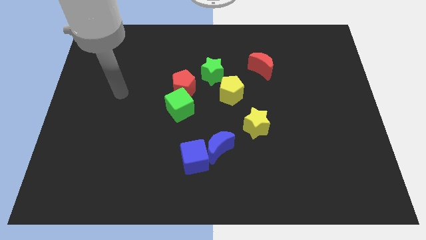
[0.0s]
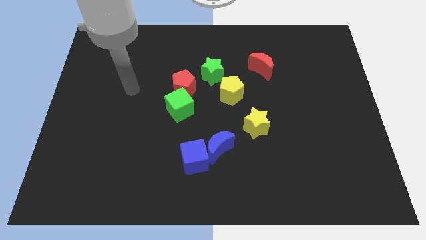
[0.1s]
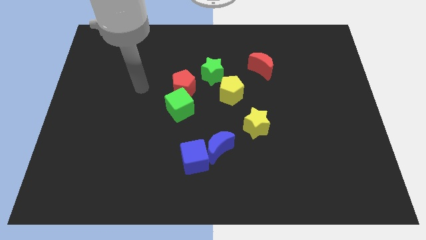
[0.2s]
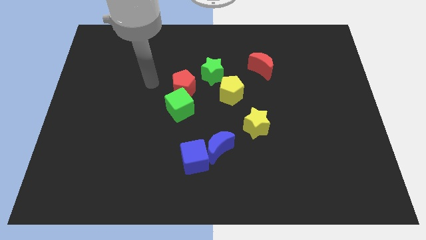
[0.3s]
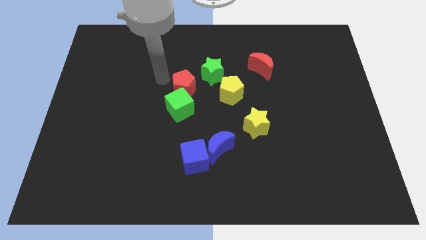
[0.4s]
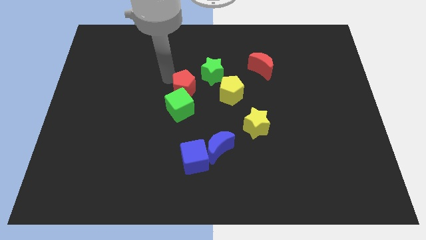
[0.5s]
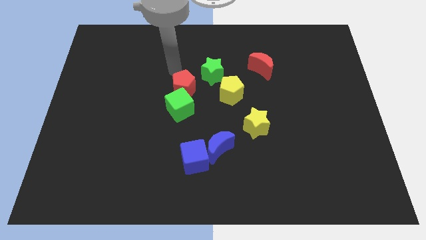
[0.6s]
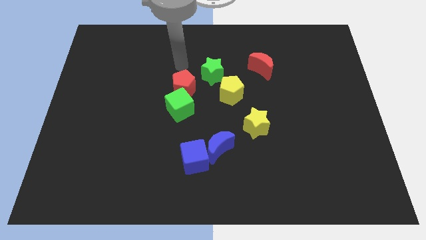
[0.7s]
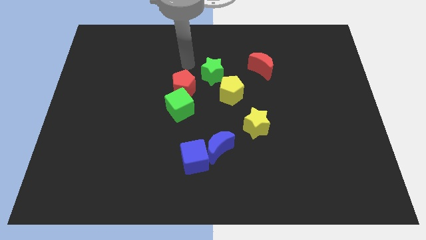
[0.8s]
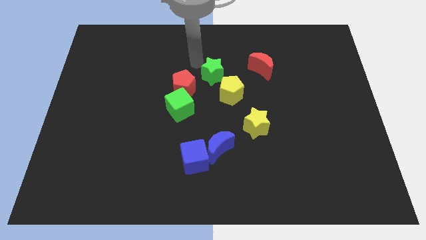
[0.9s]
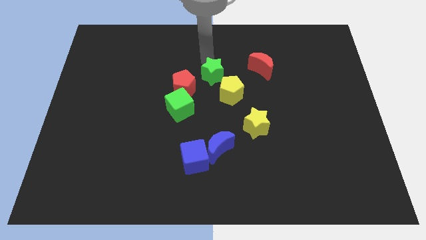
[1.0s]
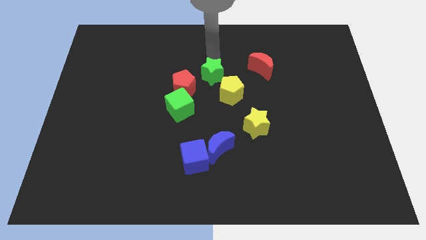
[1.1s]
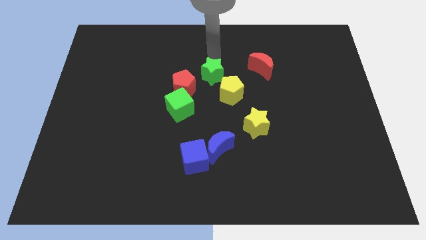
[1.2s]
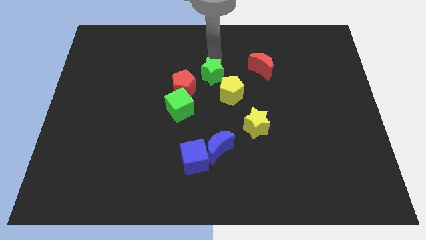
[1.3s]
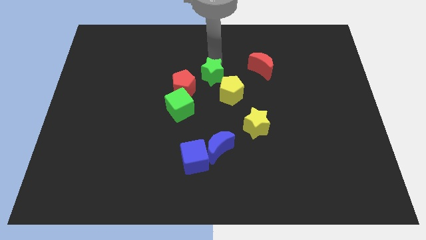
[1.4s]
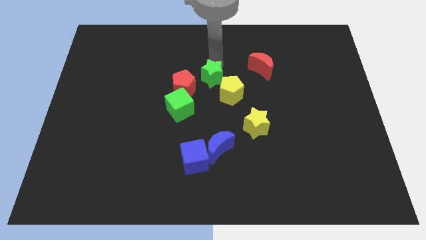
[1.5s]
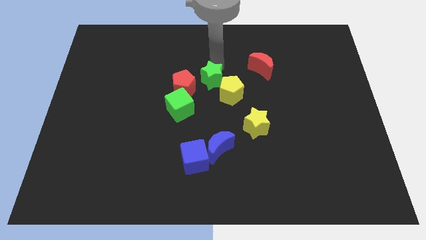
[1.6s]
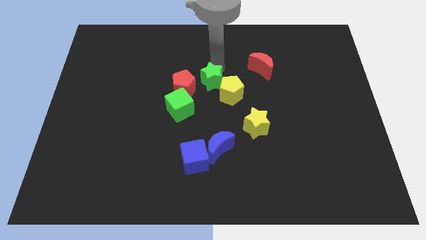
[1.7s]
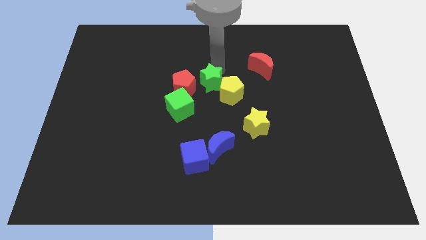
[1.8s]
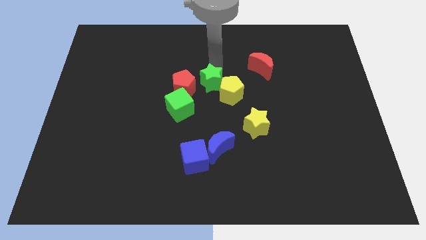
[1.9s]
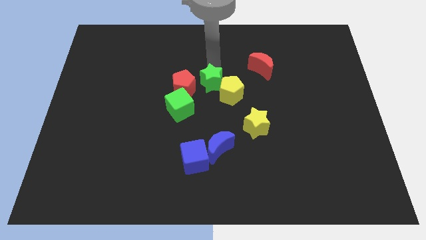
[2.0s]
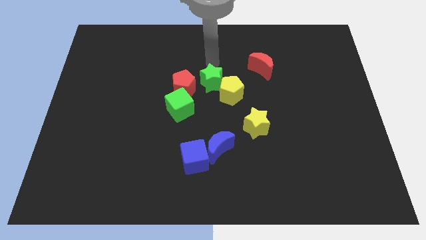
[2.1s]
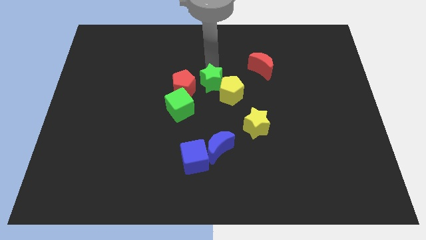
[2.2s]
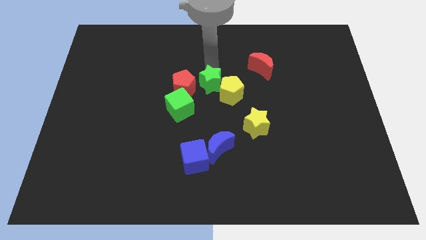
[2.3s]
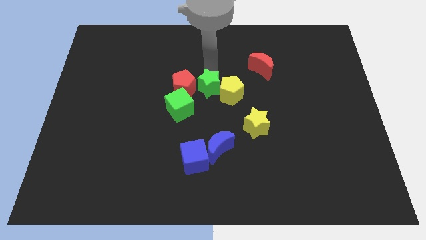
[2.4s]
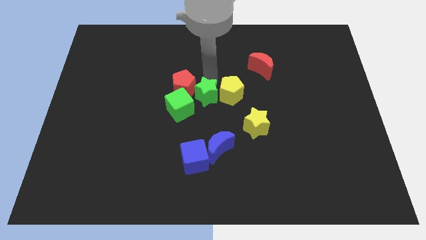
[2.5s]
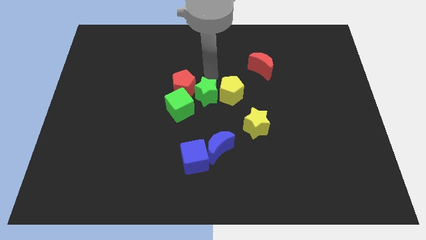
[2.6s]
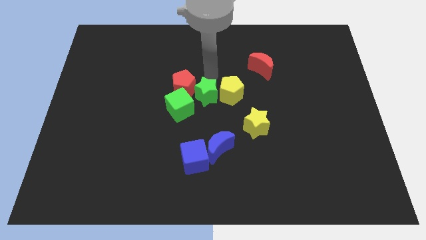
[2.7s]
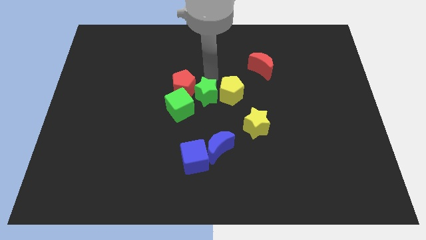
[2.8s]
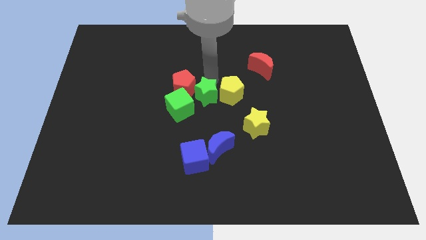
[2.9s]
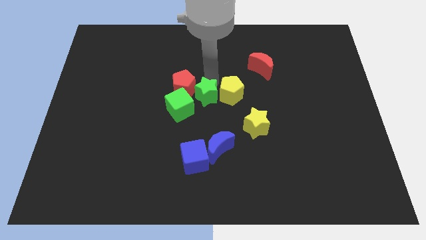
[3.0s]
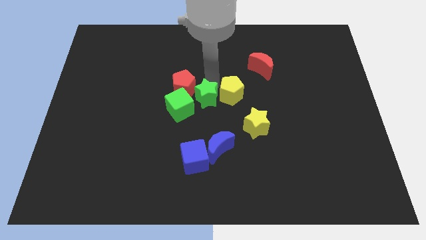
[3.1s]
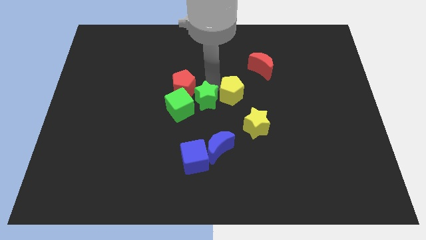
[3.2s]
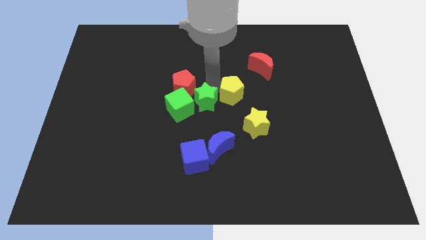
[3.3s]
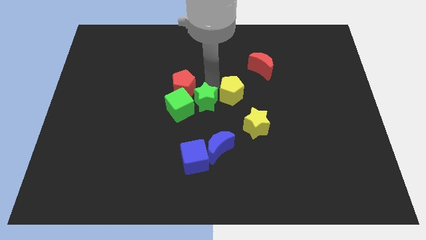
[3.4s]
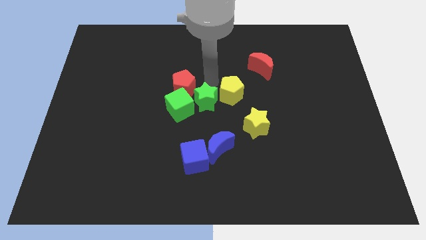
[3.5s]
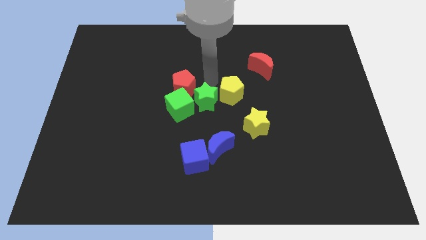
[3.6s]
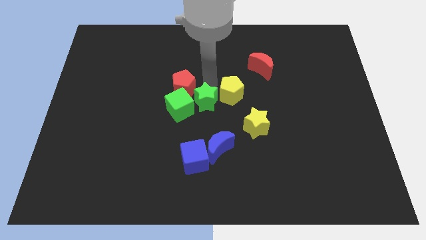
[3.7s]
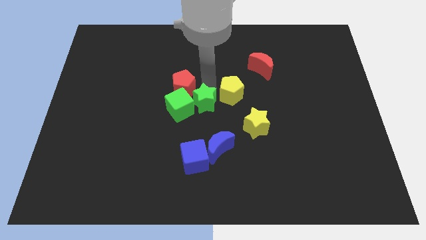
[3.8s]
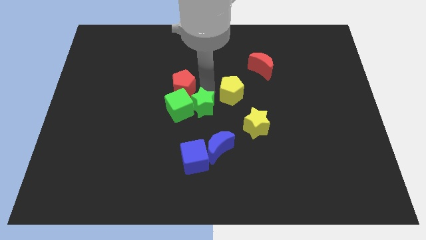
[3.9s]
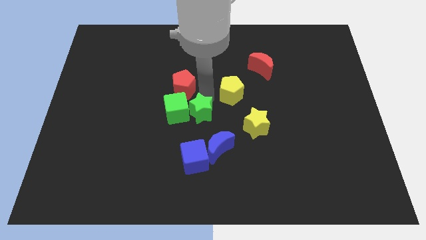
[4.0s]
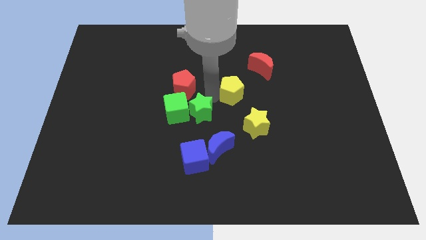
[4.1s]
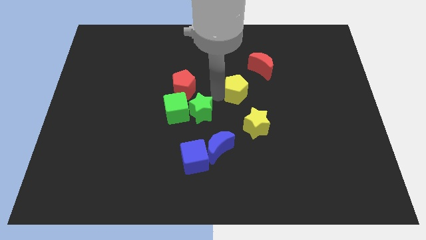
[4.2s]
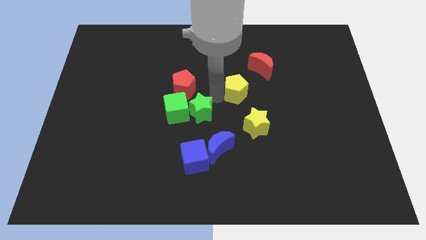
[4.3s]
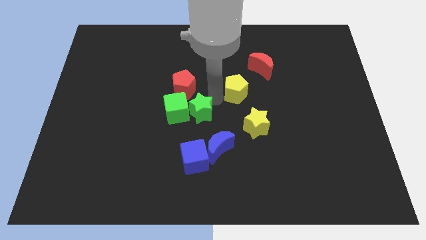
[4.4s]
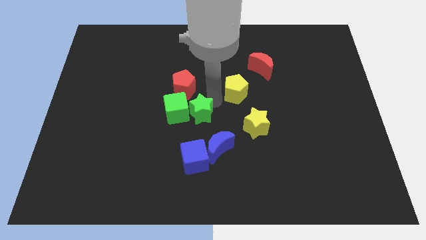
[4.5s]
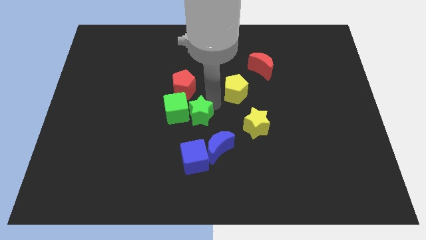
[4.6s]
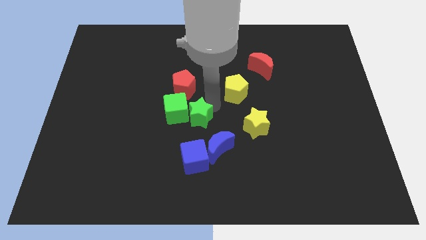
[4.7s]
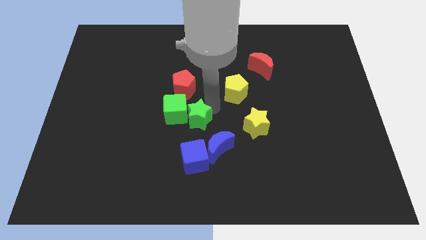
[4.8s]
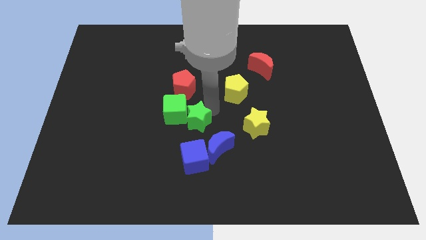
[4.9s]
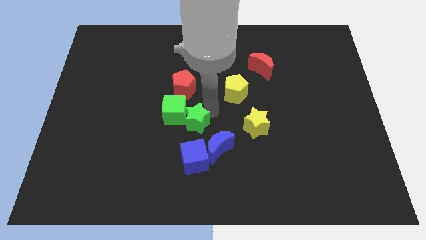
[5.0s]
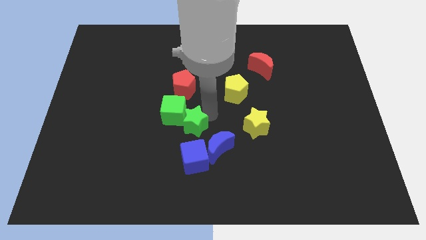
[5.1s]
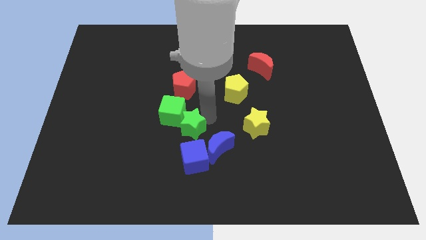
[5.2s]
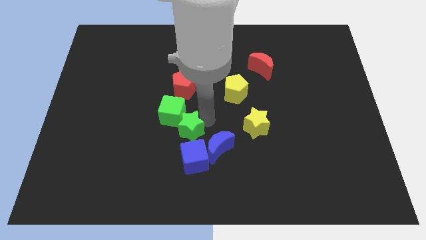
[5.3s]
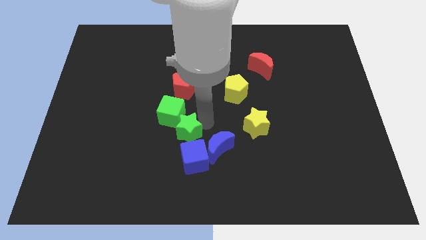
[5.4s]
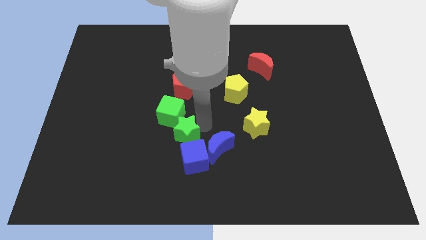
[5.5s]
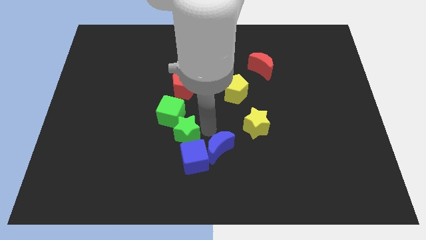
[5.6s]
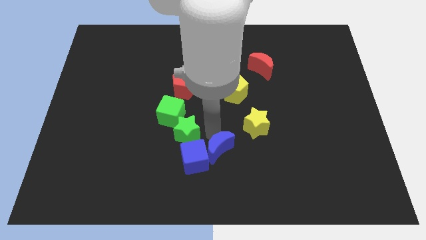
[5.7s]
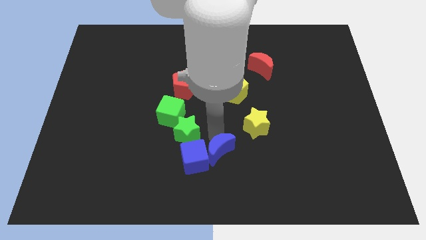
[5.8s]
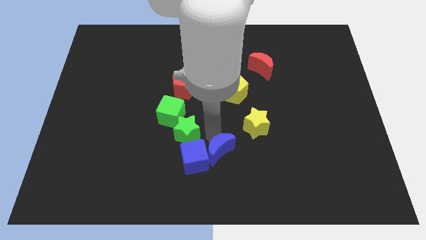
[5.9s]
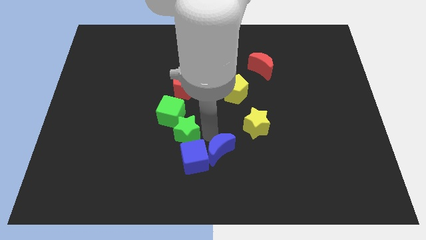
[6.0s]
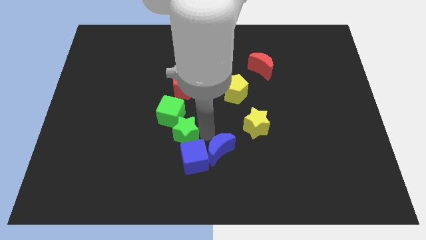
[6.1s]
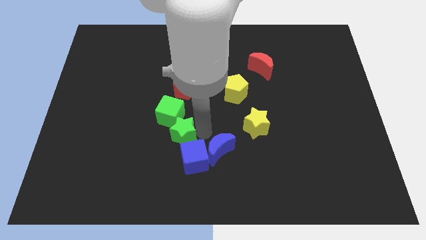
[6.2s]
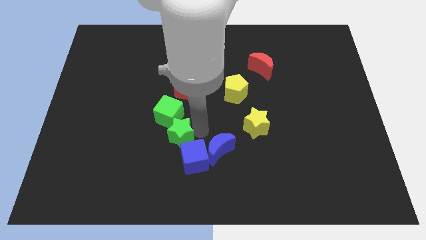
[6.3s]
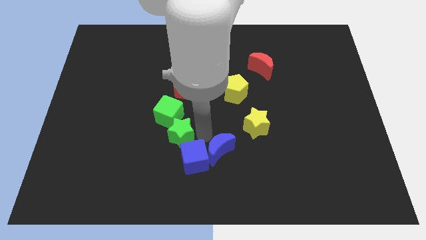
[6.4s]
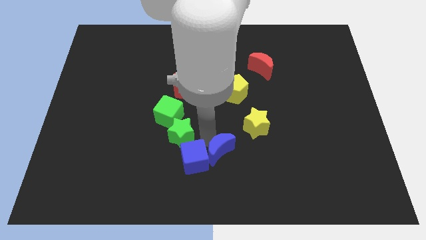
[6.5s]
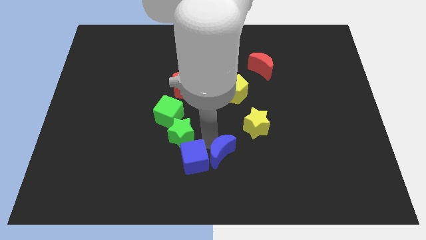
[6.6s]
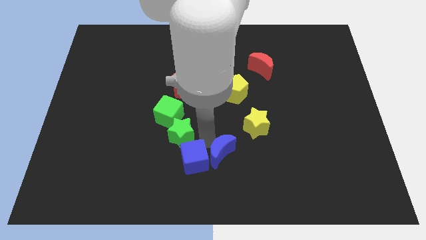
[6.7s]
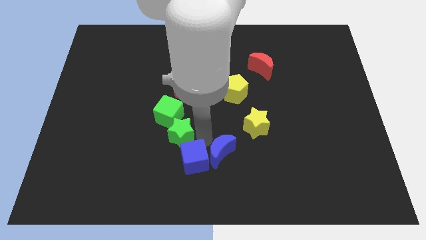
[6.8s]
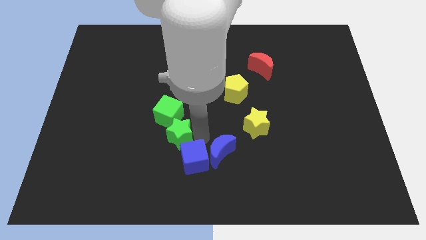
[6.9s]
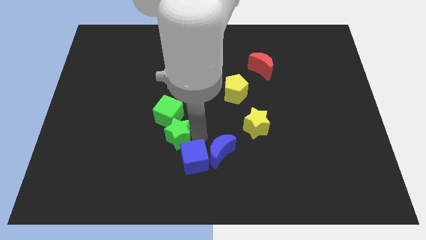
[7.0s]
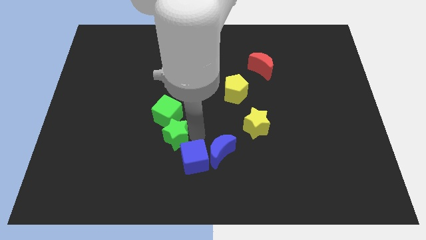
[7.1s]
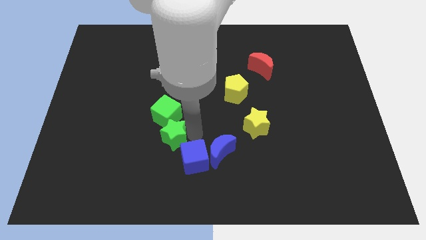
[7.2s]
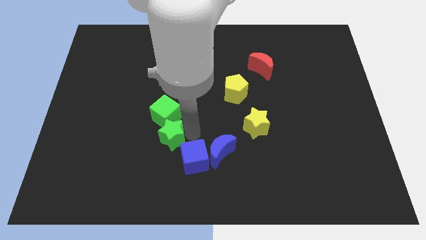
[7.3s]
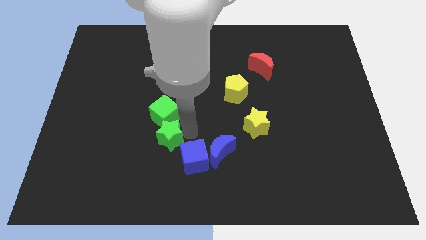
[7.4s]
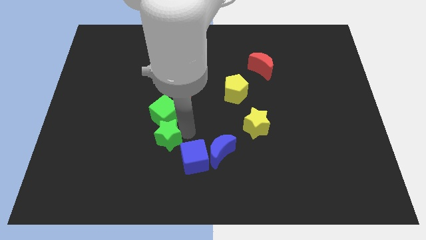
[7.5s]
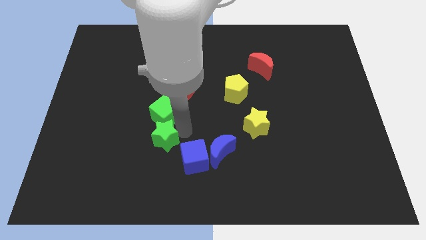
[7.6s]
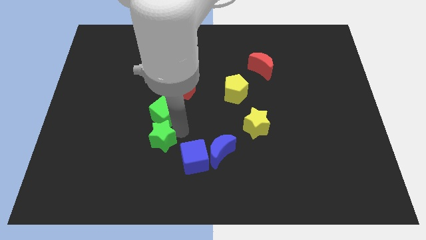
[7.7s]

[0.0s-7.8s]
move the green star down and left

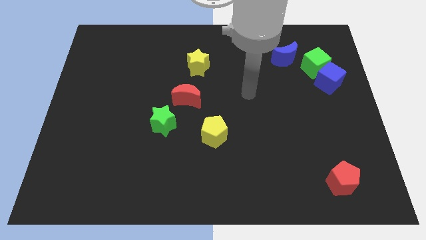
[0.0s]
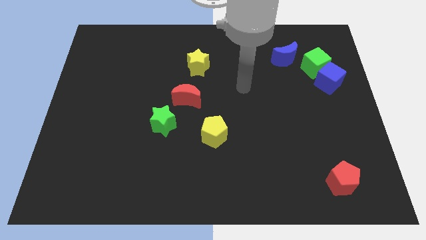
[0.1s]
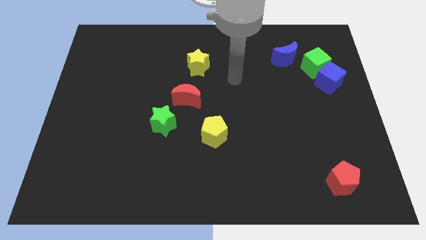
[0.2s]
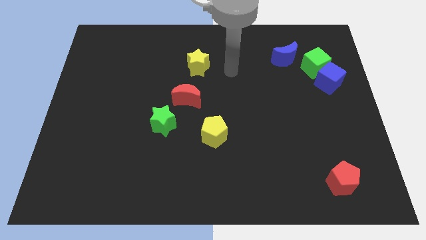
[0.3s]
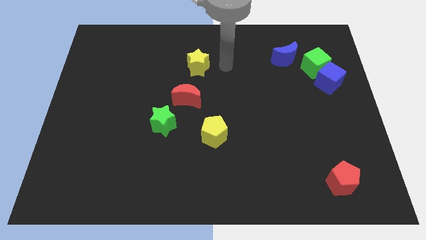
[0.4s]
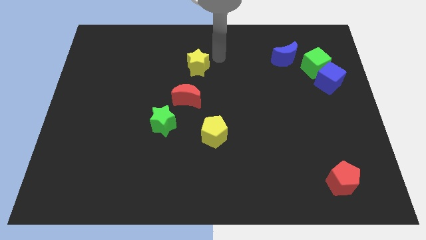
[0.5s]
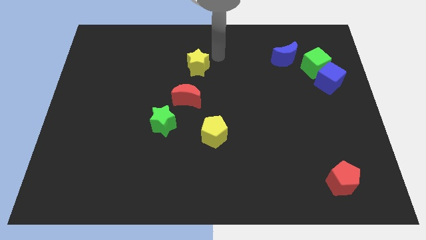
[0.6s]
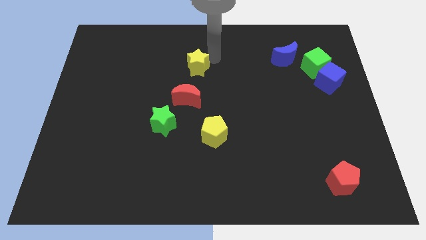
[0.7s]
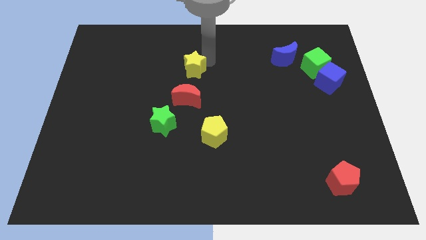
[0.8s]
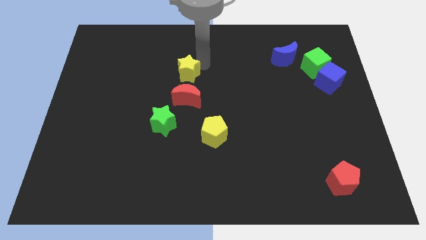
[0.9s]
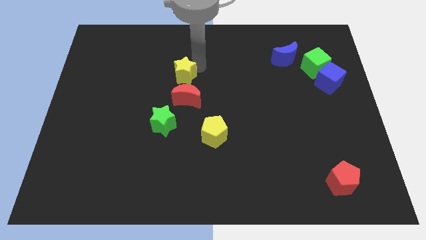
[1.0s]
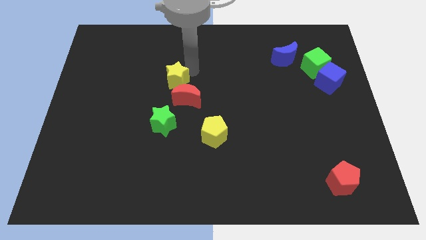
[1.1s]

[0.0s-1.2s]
slightly move the yellow star downwards and to the left diagonally
